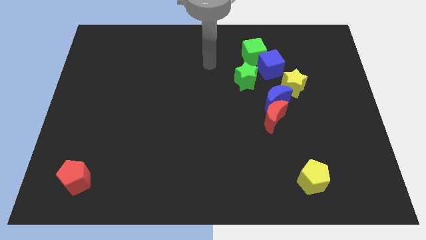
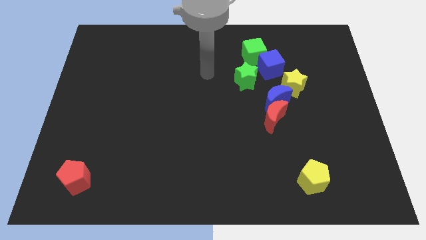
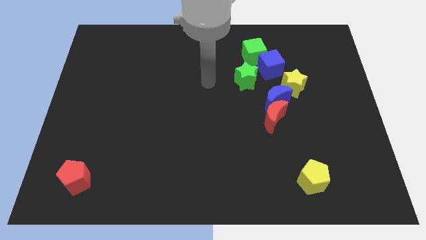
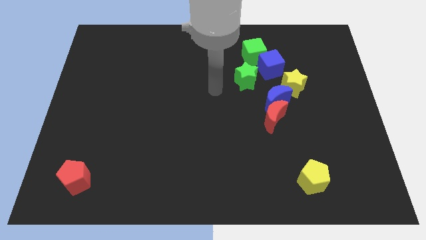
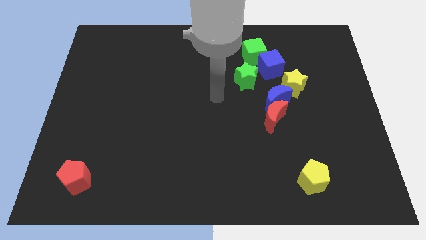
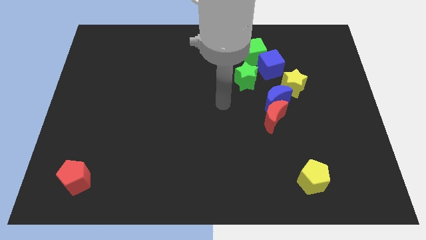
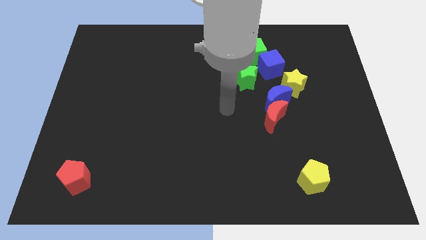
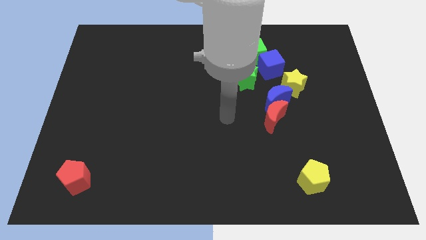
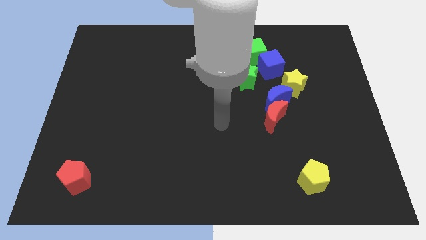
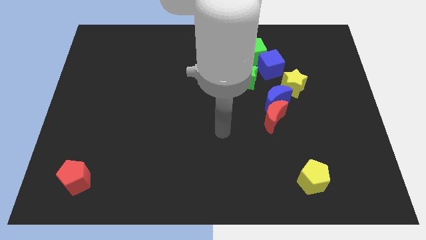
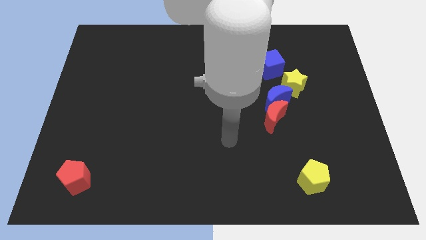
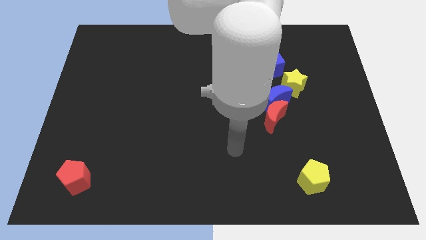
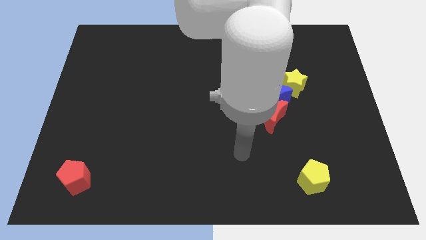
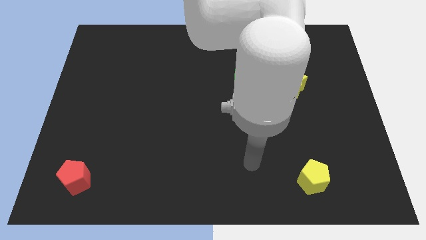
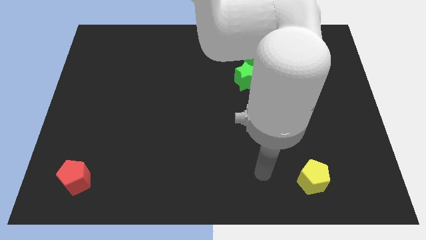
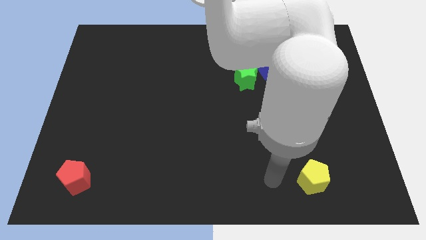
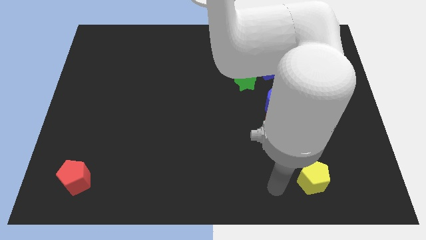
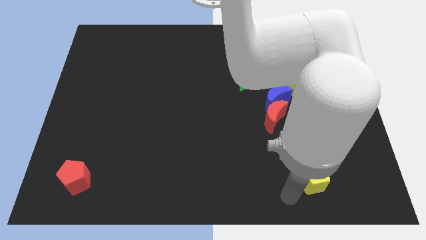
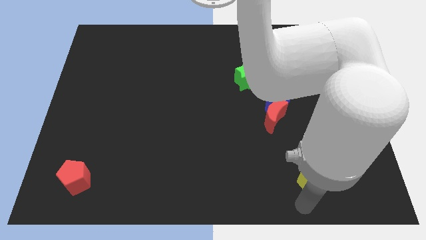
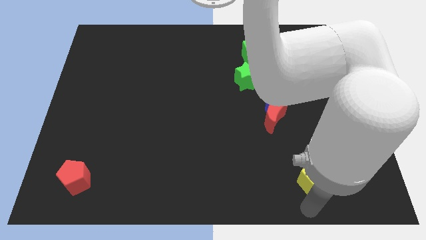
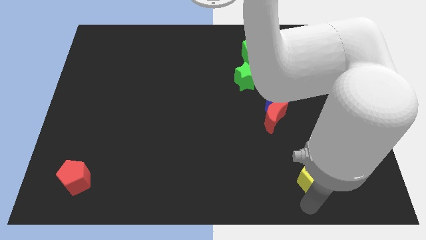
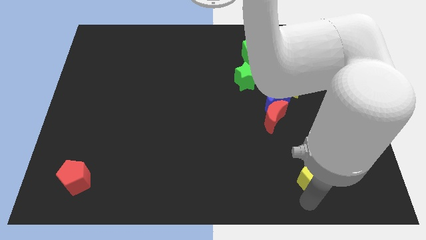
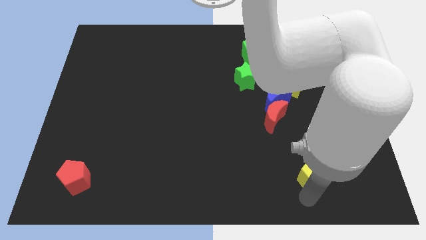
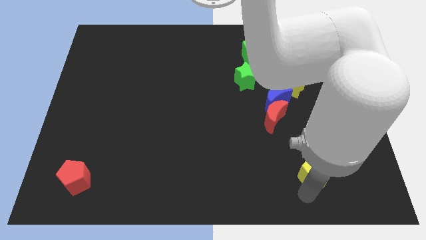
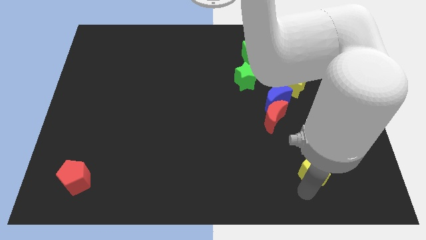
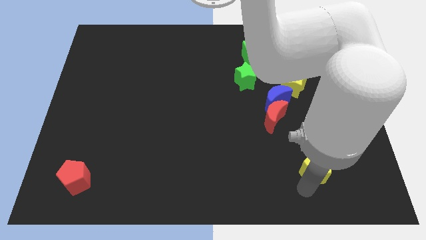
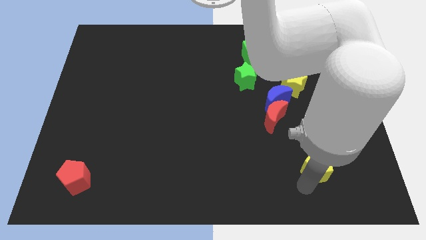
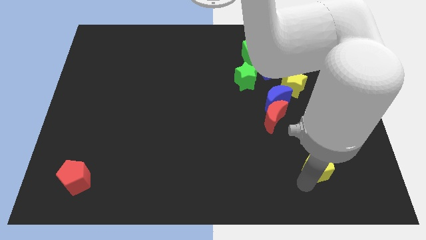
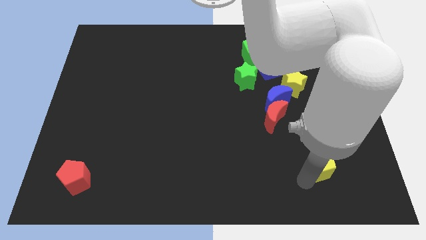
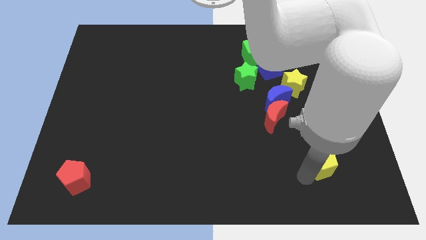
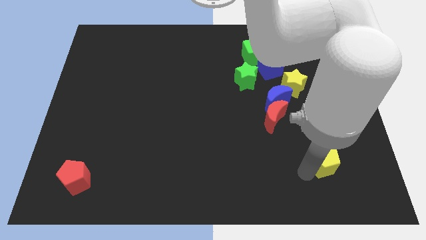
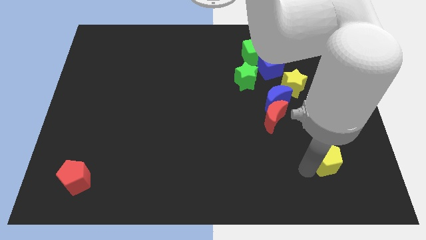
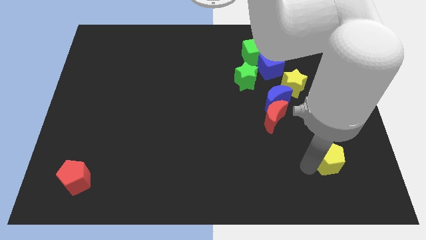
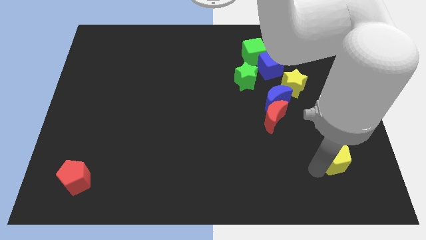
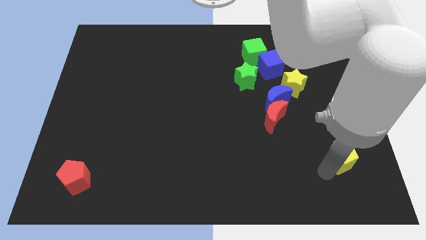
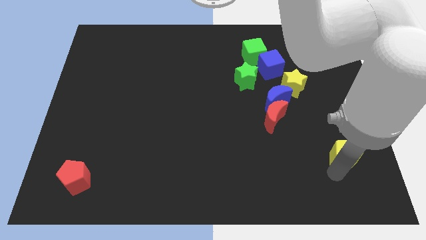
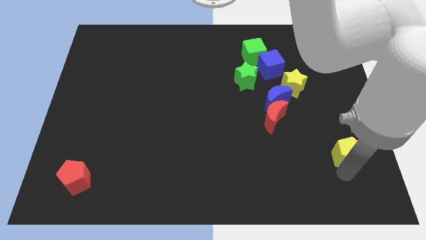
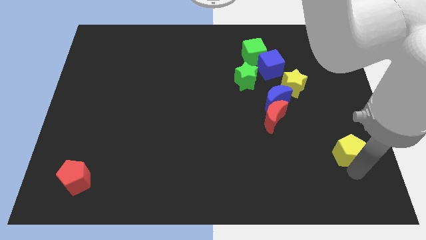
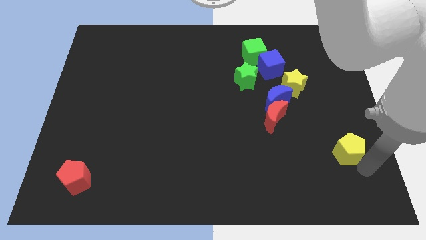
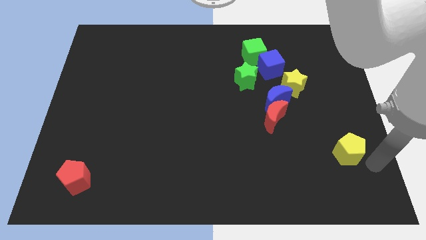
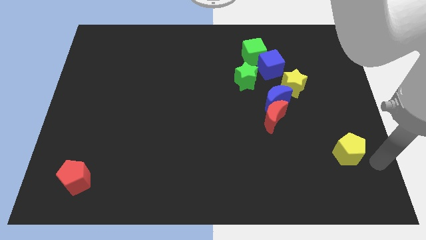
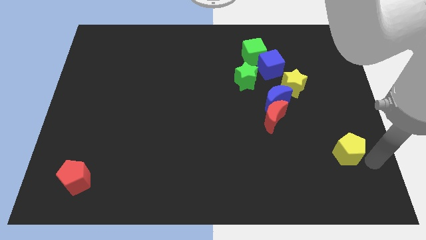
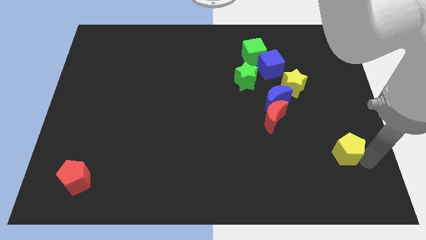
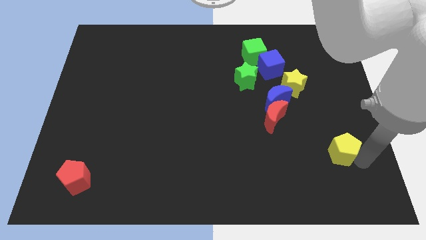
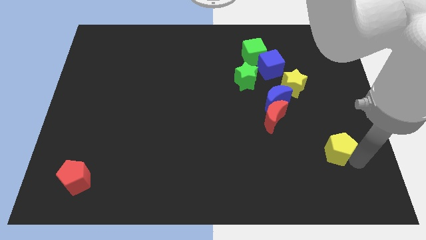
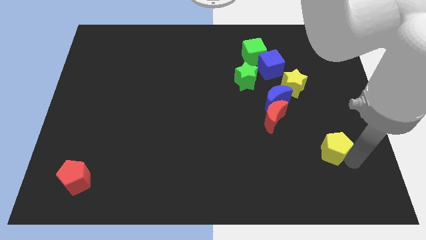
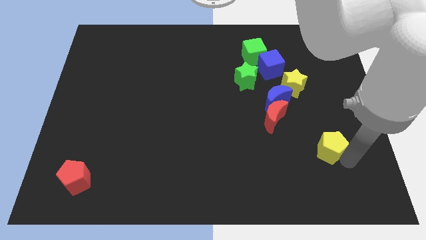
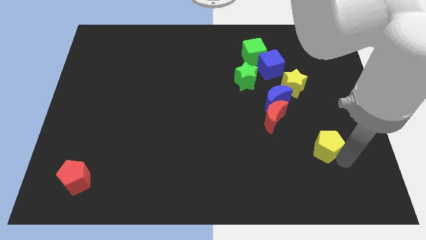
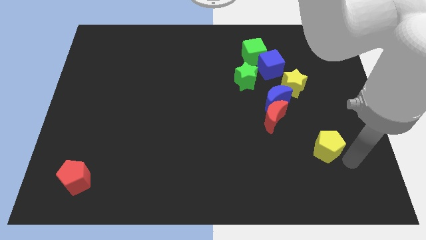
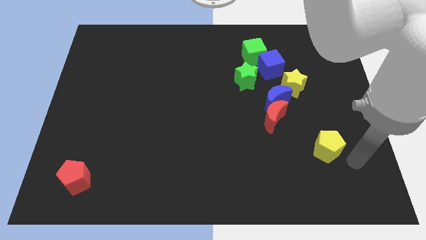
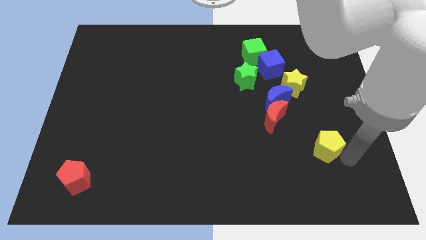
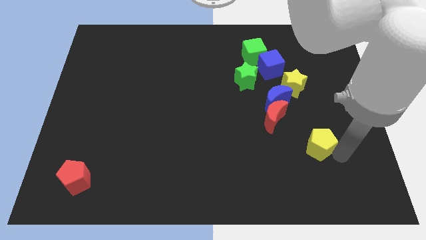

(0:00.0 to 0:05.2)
slide the yellow pentagon to the bottom right side of the red moon
